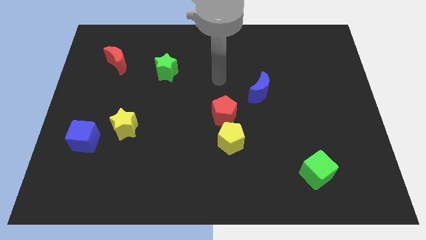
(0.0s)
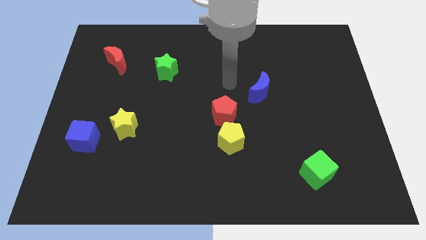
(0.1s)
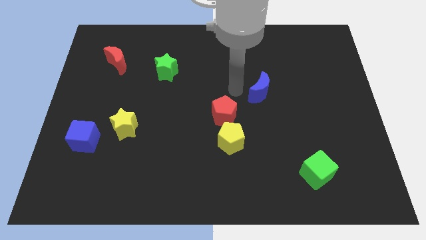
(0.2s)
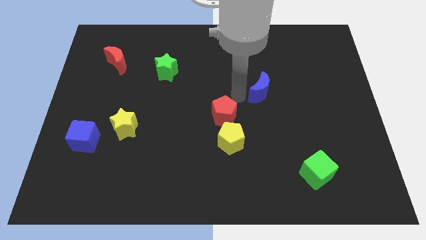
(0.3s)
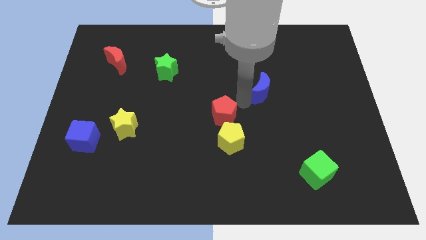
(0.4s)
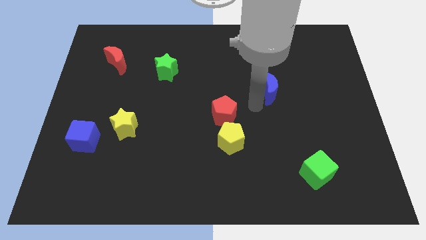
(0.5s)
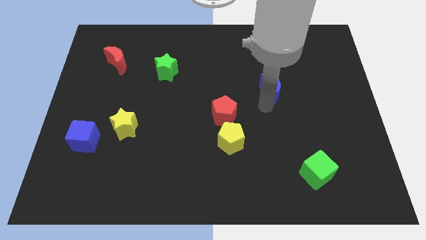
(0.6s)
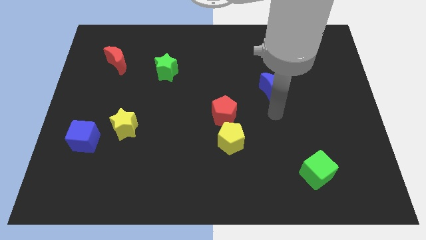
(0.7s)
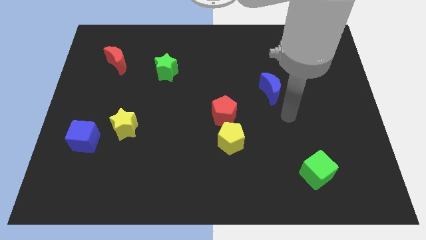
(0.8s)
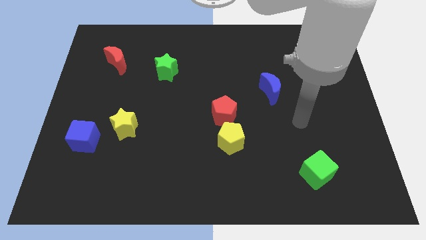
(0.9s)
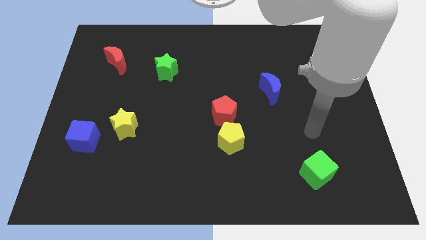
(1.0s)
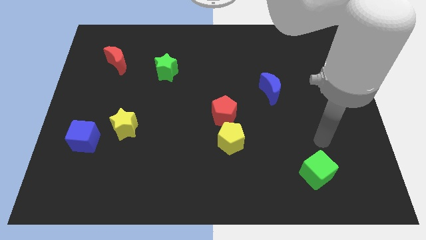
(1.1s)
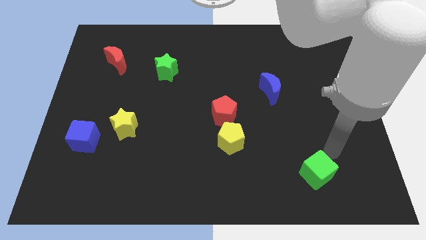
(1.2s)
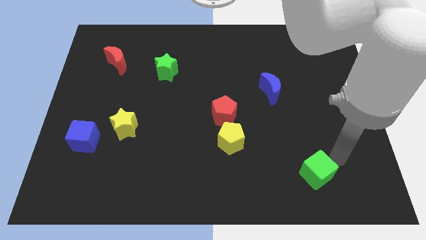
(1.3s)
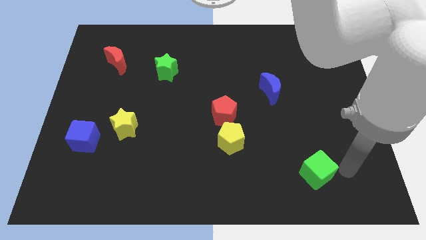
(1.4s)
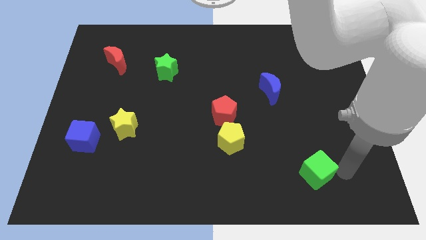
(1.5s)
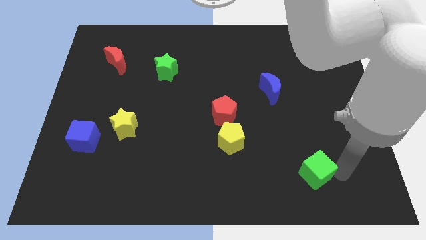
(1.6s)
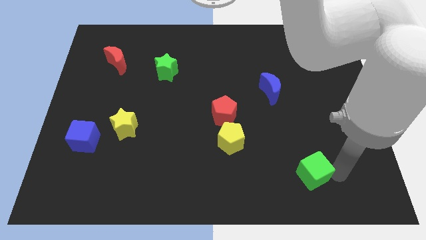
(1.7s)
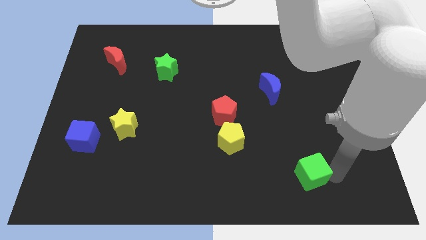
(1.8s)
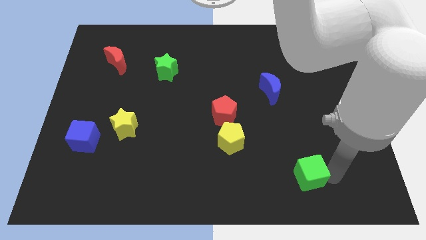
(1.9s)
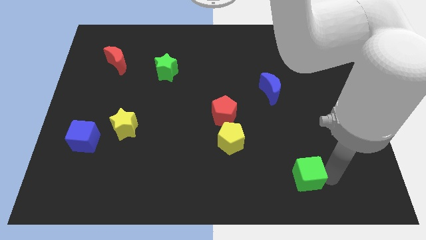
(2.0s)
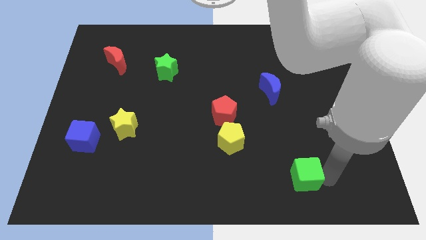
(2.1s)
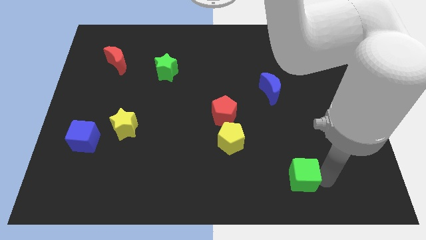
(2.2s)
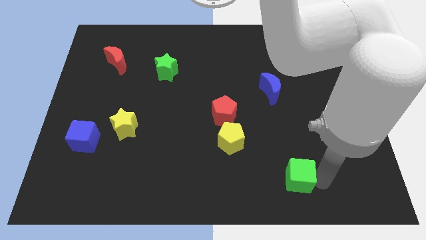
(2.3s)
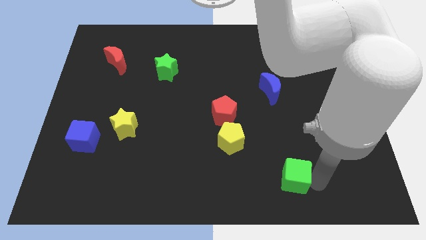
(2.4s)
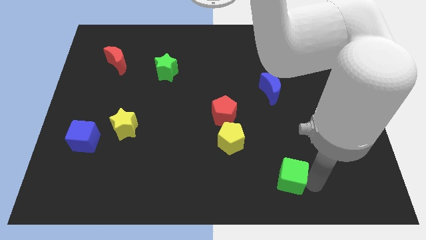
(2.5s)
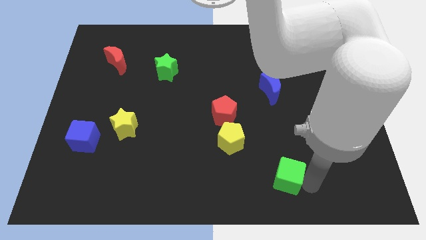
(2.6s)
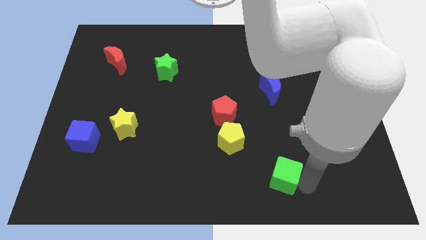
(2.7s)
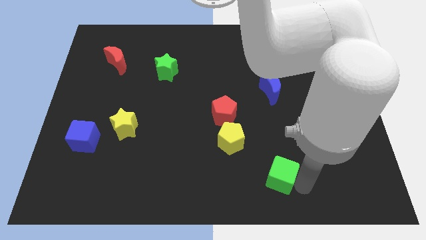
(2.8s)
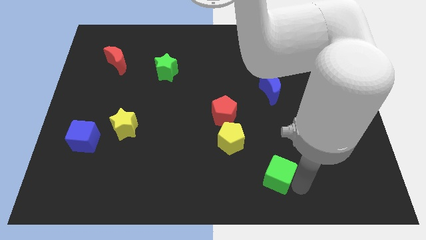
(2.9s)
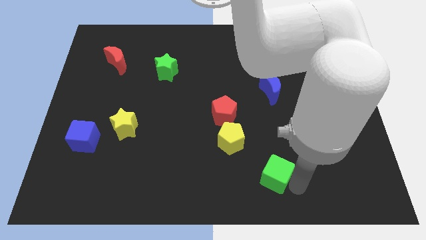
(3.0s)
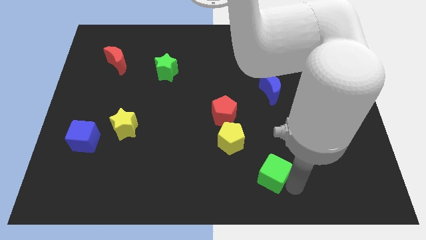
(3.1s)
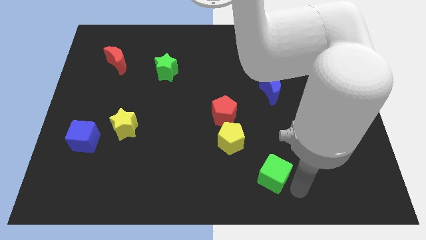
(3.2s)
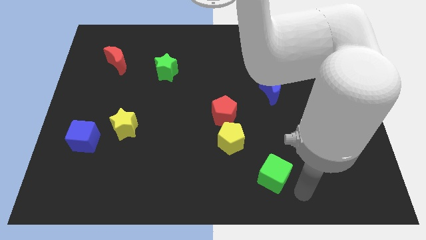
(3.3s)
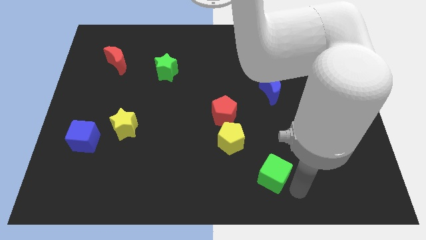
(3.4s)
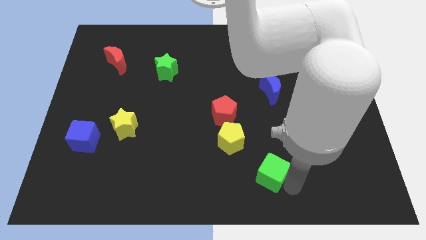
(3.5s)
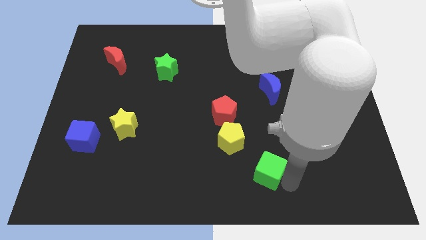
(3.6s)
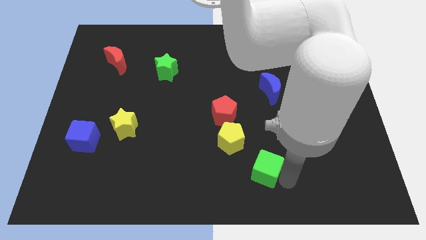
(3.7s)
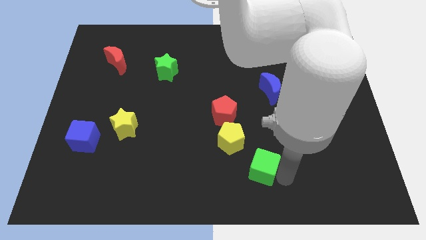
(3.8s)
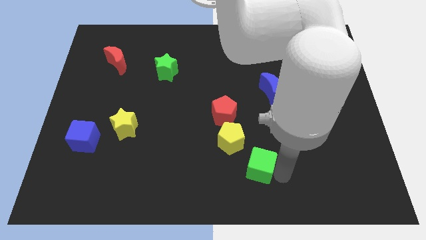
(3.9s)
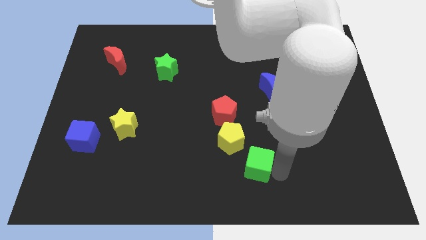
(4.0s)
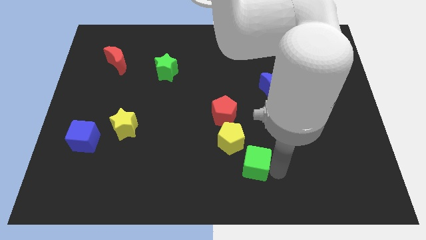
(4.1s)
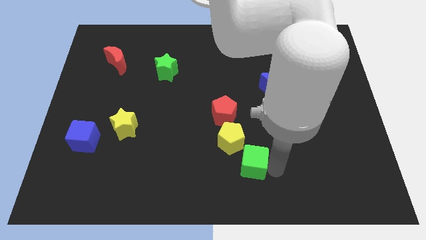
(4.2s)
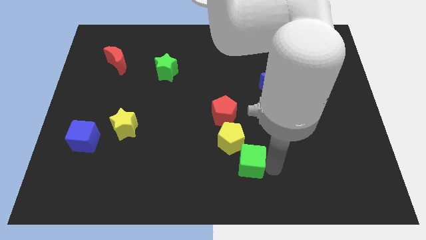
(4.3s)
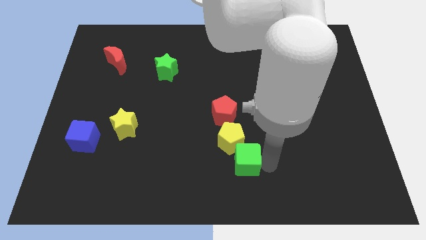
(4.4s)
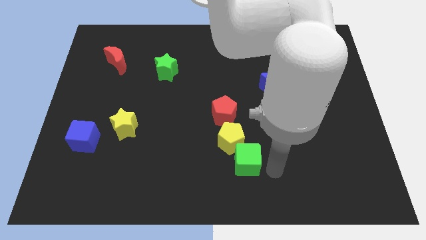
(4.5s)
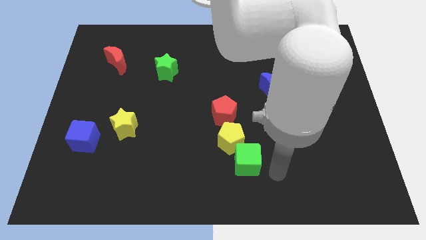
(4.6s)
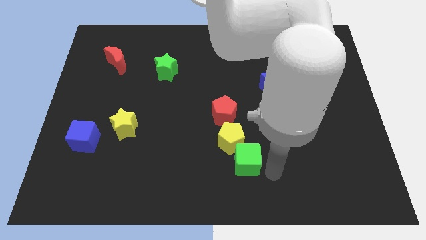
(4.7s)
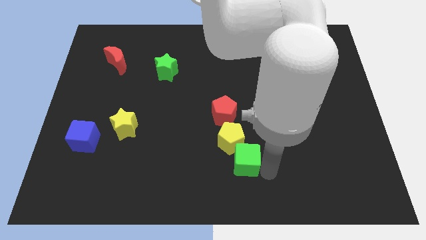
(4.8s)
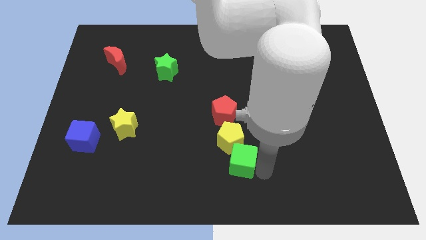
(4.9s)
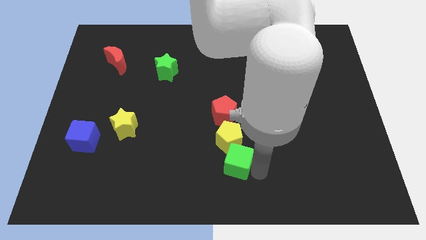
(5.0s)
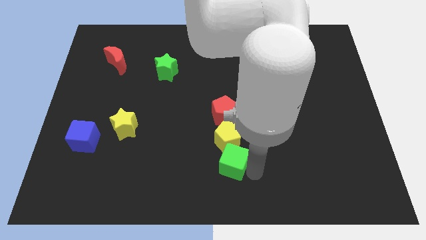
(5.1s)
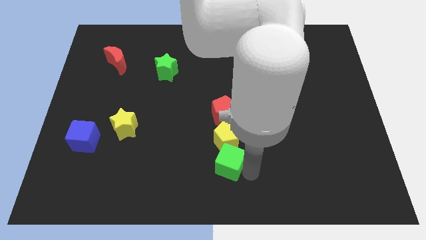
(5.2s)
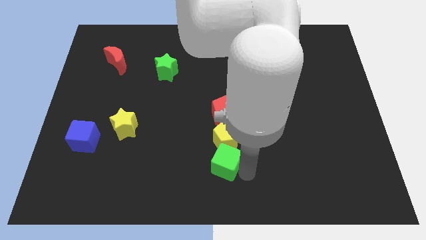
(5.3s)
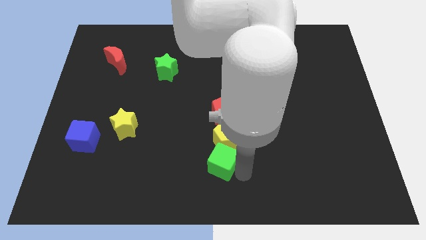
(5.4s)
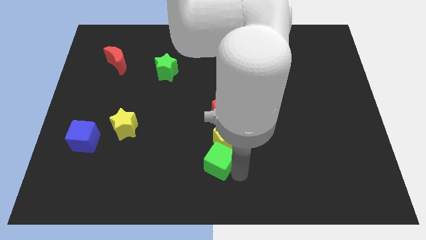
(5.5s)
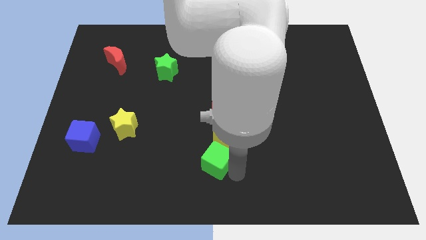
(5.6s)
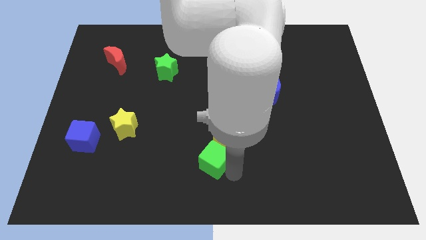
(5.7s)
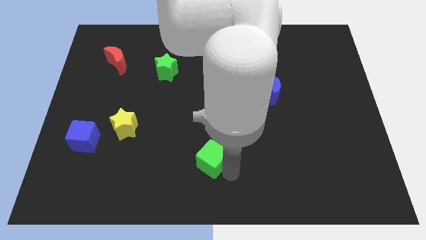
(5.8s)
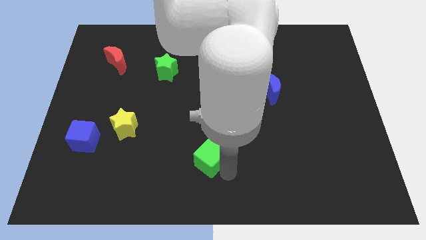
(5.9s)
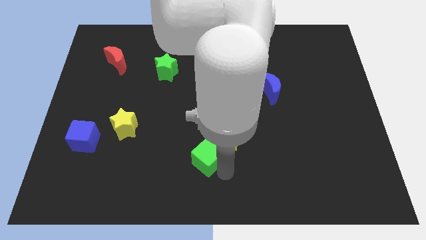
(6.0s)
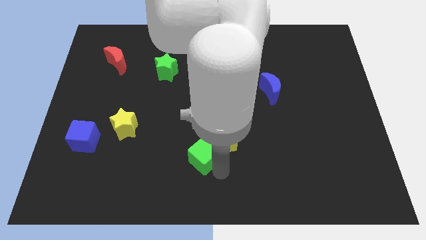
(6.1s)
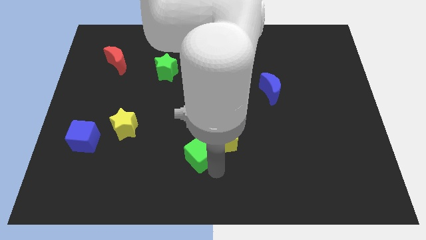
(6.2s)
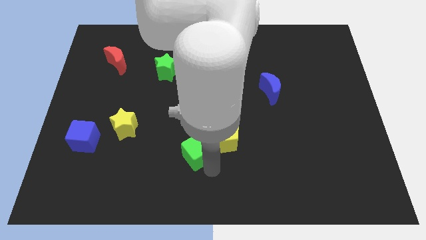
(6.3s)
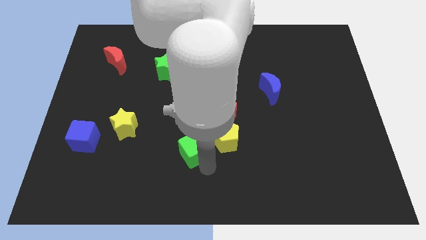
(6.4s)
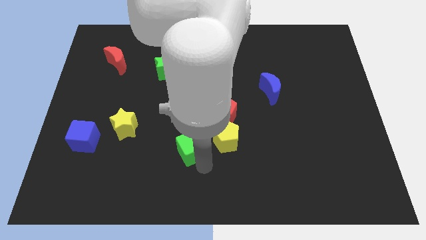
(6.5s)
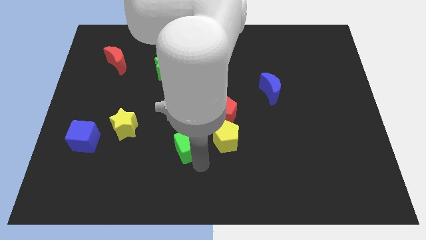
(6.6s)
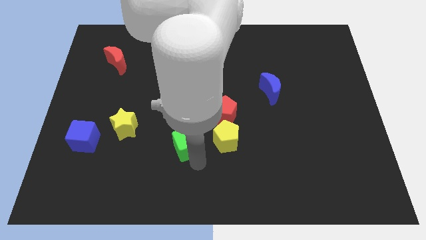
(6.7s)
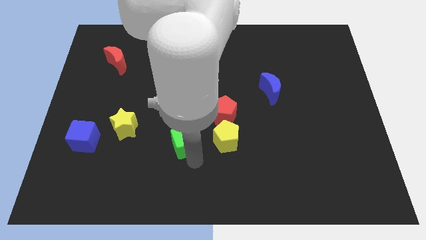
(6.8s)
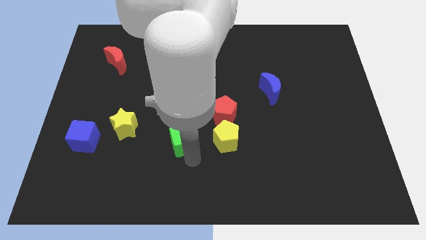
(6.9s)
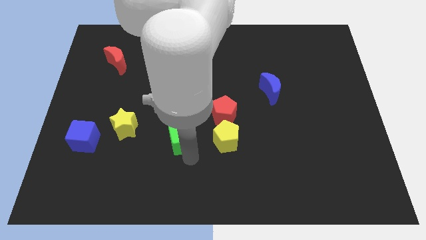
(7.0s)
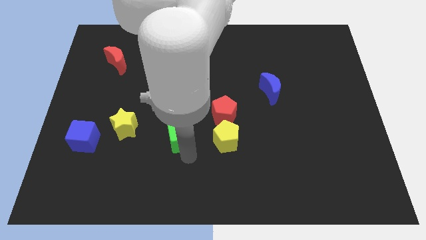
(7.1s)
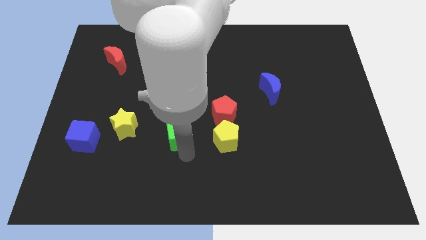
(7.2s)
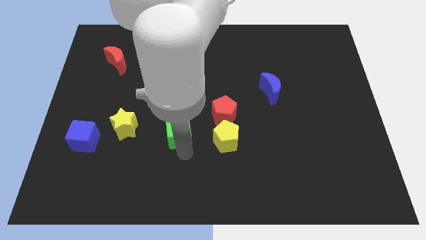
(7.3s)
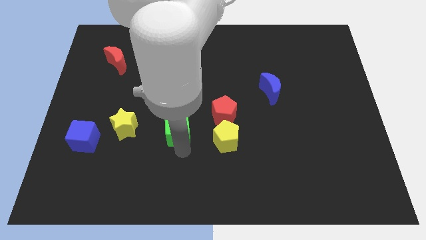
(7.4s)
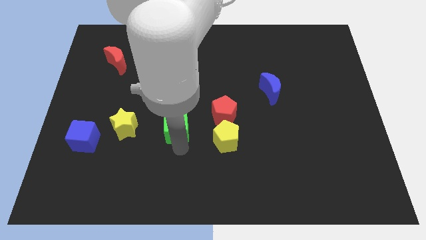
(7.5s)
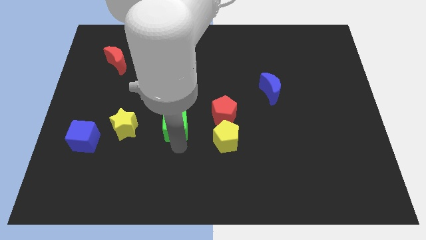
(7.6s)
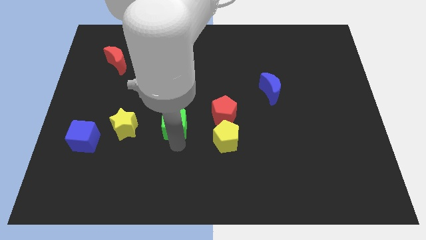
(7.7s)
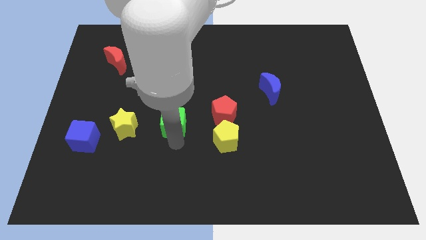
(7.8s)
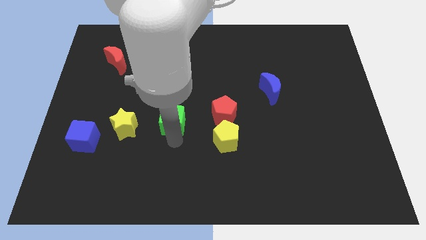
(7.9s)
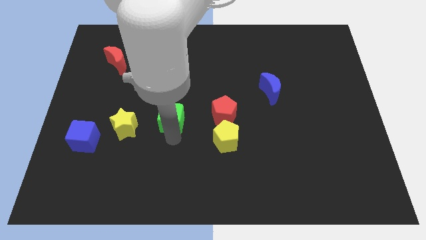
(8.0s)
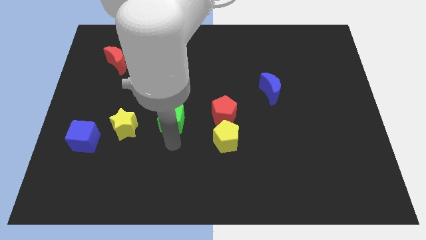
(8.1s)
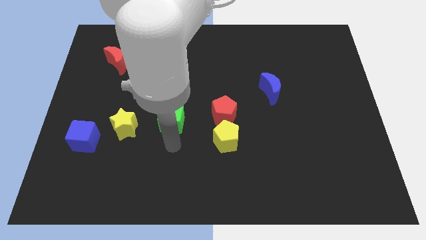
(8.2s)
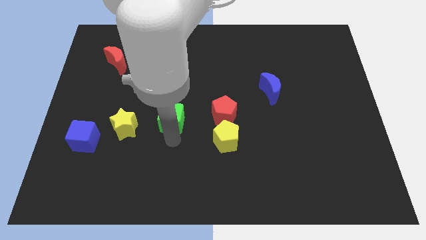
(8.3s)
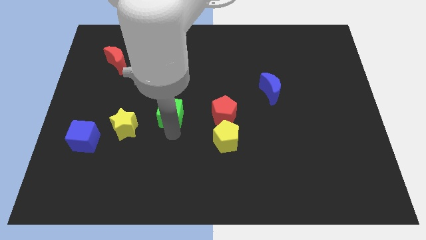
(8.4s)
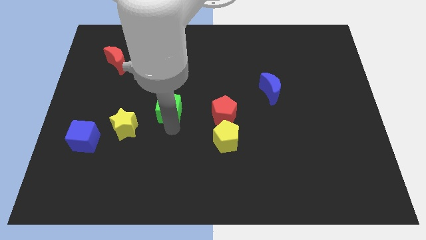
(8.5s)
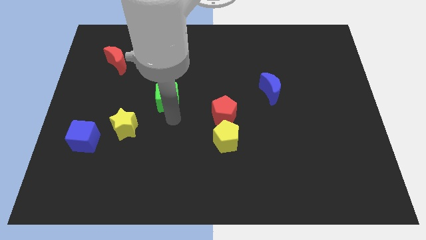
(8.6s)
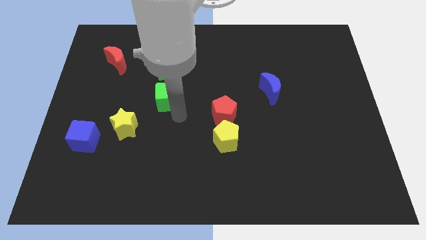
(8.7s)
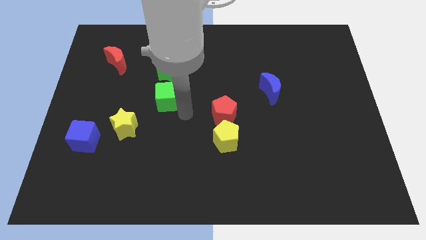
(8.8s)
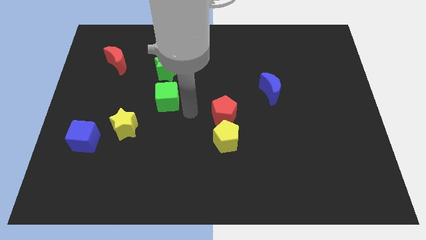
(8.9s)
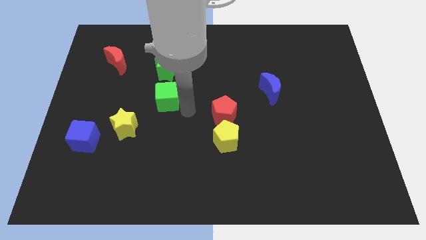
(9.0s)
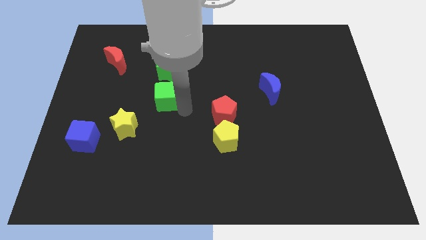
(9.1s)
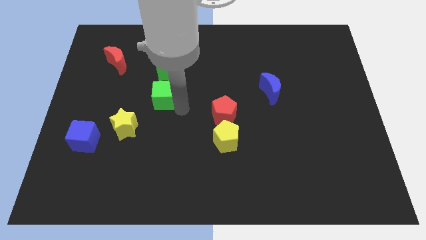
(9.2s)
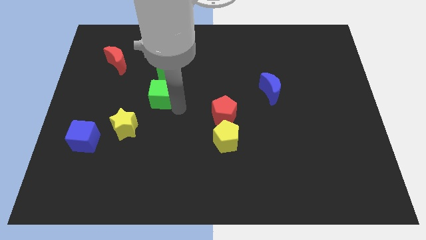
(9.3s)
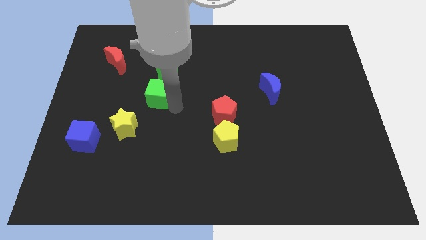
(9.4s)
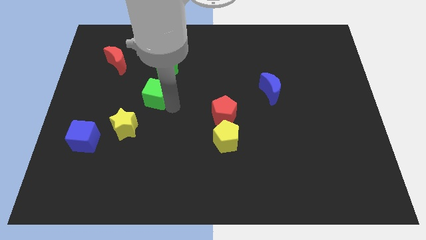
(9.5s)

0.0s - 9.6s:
put the green cube to the bottom left side of the green star
